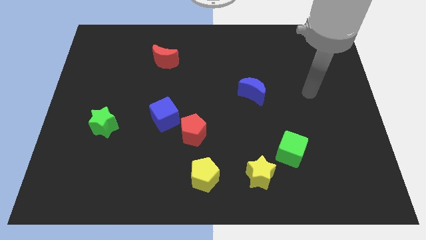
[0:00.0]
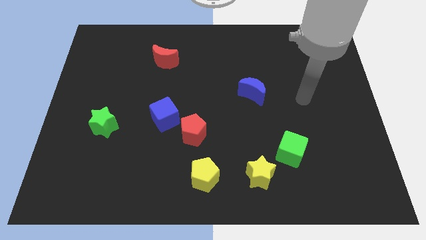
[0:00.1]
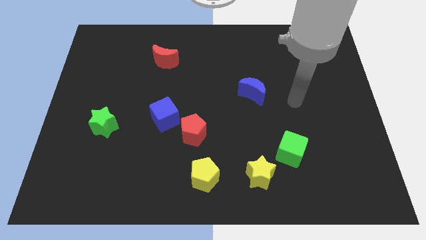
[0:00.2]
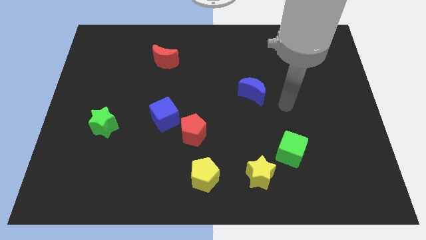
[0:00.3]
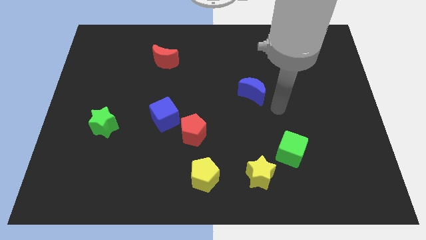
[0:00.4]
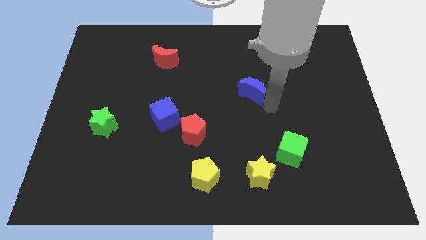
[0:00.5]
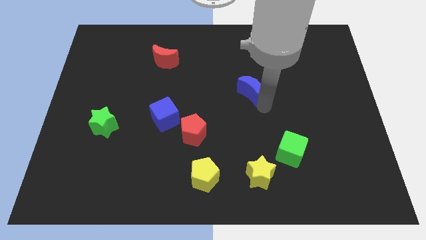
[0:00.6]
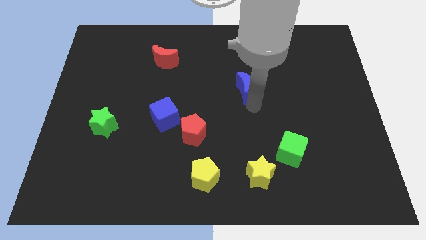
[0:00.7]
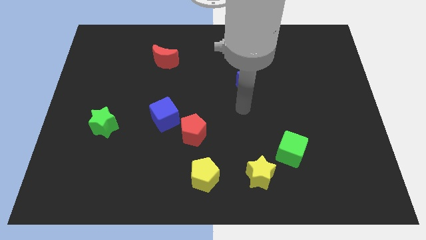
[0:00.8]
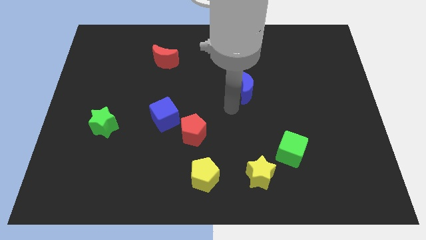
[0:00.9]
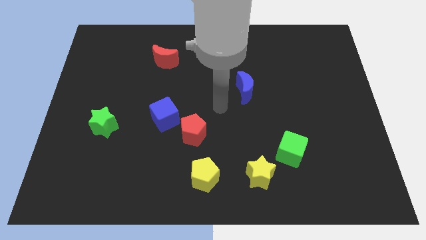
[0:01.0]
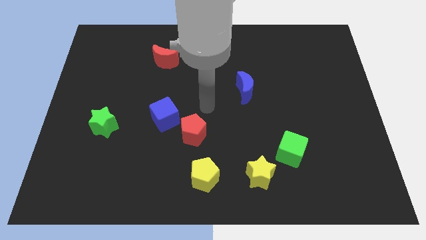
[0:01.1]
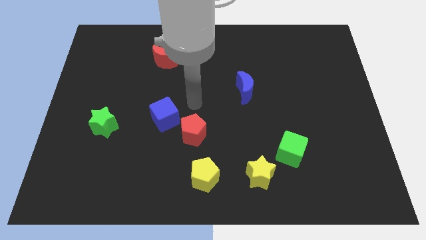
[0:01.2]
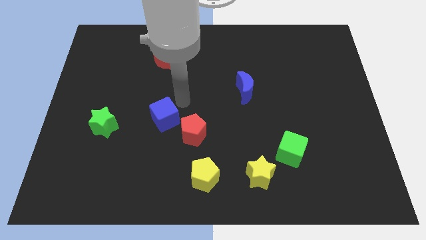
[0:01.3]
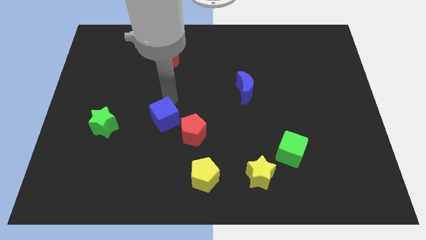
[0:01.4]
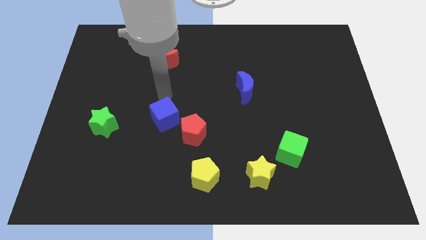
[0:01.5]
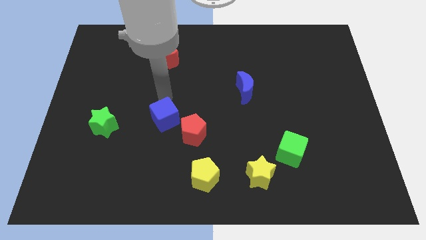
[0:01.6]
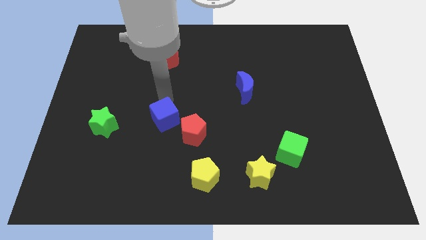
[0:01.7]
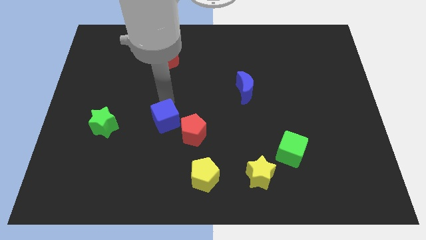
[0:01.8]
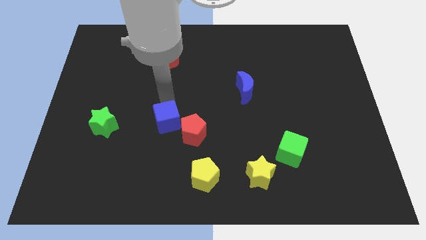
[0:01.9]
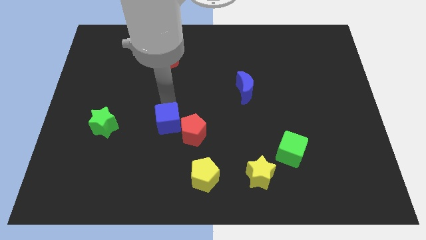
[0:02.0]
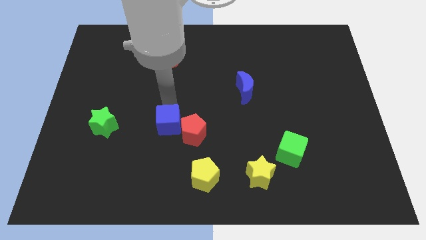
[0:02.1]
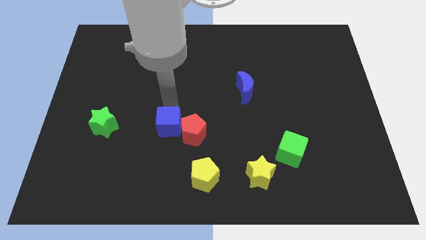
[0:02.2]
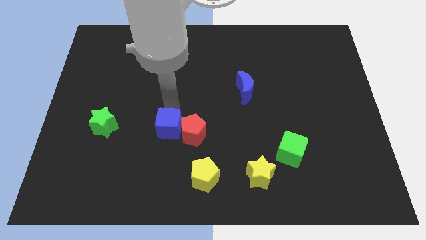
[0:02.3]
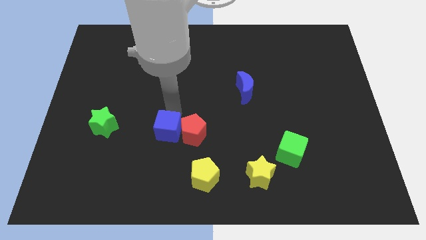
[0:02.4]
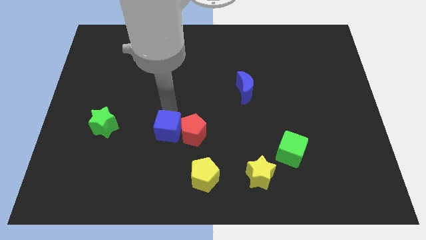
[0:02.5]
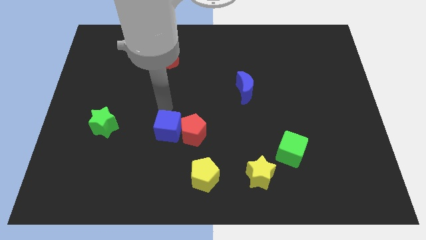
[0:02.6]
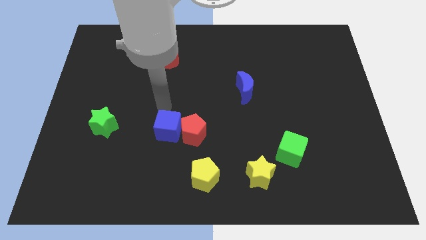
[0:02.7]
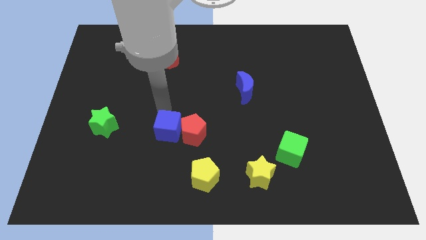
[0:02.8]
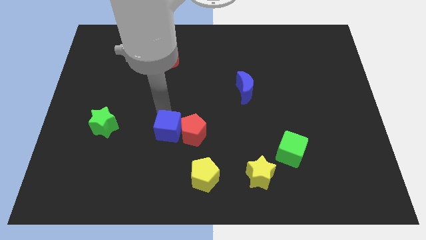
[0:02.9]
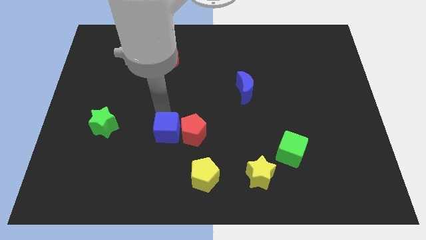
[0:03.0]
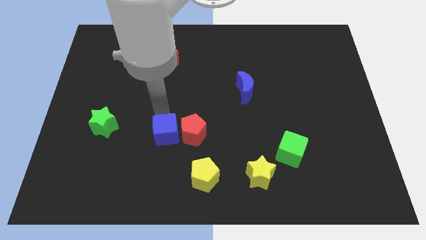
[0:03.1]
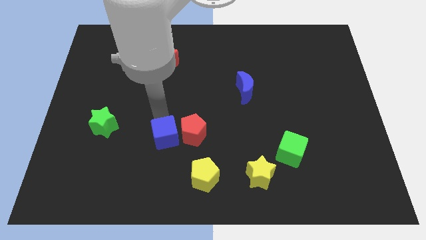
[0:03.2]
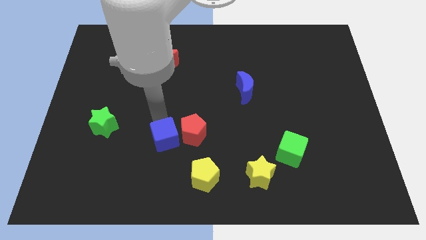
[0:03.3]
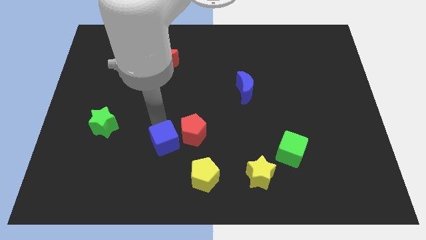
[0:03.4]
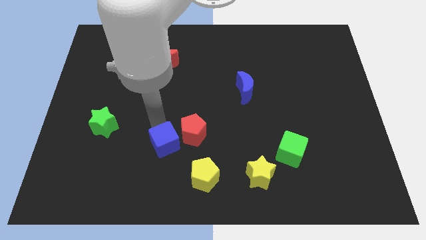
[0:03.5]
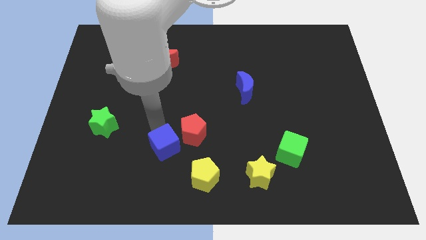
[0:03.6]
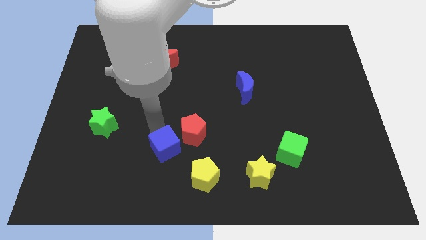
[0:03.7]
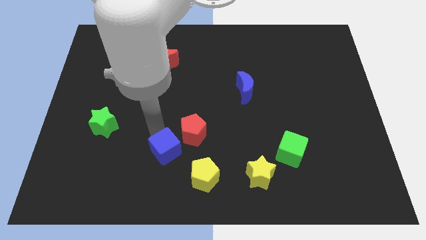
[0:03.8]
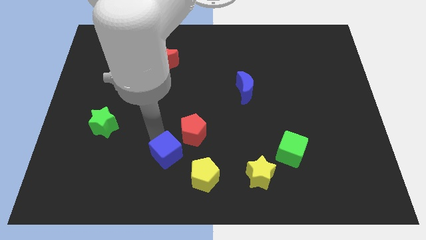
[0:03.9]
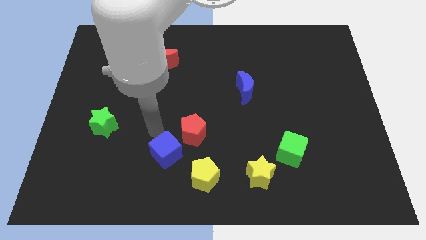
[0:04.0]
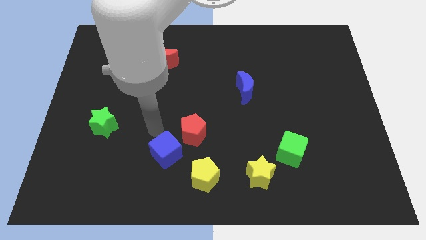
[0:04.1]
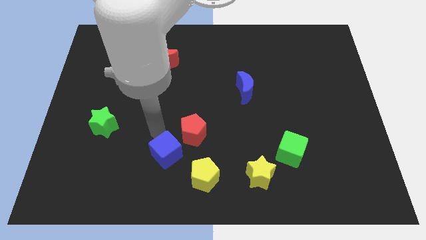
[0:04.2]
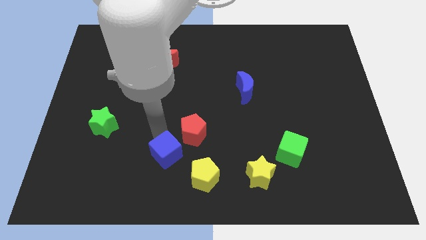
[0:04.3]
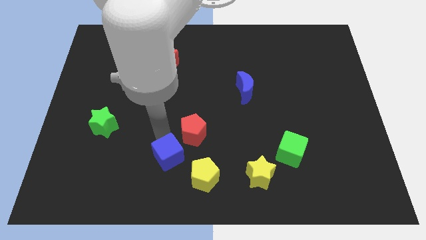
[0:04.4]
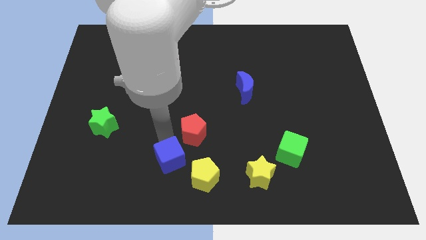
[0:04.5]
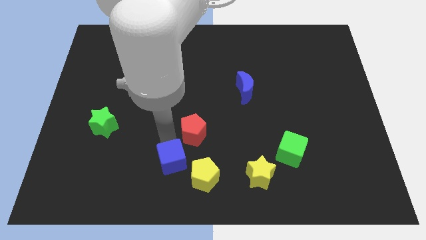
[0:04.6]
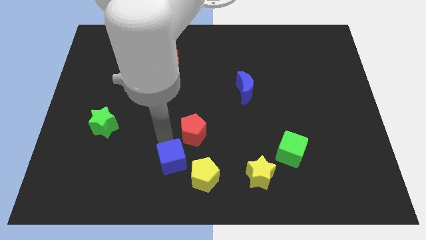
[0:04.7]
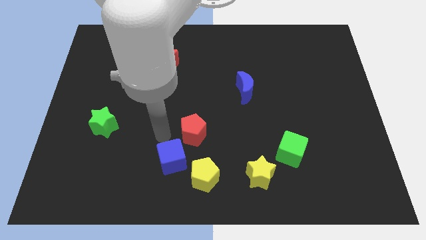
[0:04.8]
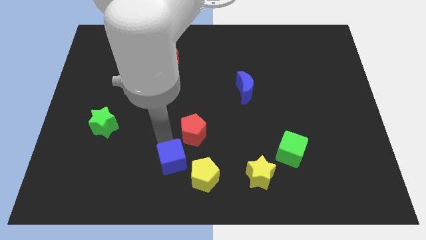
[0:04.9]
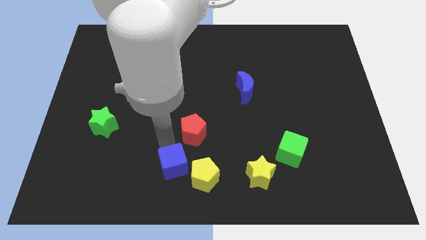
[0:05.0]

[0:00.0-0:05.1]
slide the blue cube to the bottom

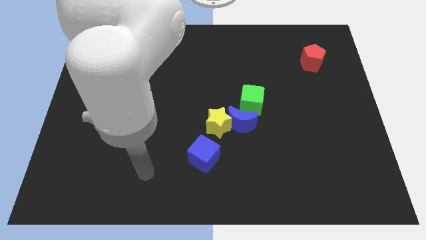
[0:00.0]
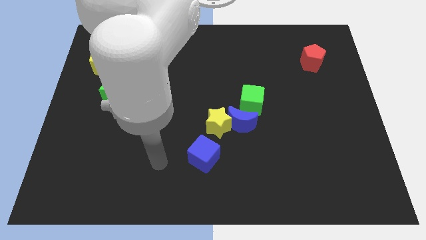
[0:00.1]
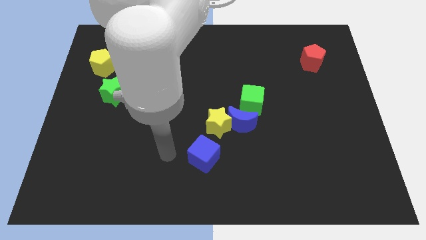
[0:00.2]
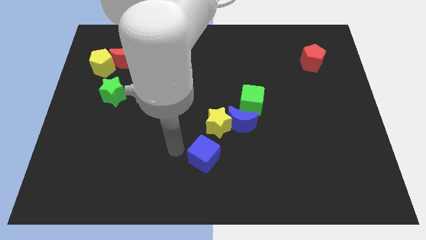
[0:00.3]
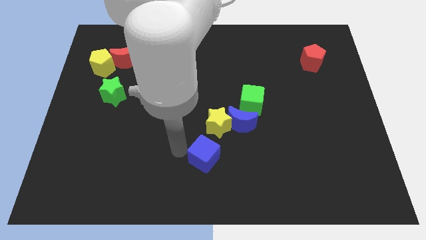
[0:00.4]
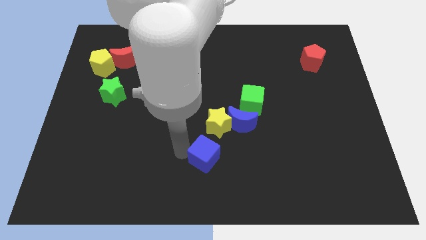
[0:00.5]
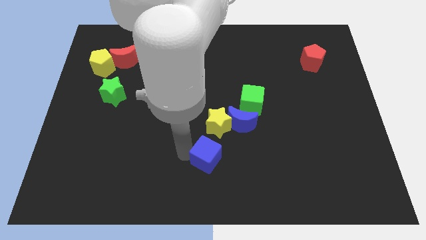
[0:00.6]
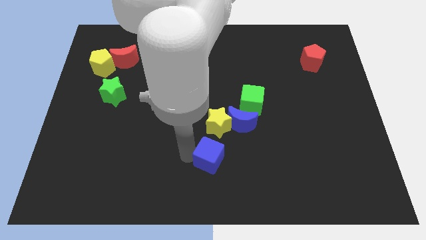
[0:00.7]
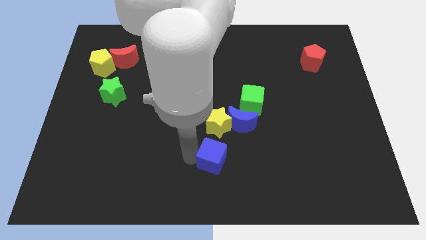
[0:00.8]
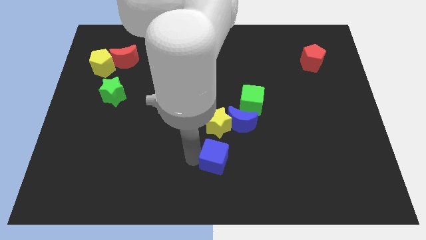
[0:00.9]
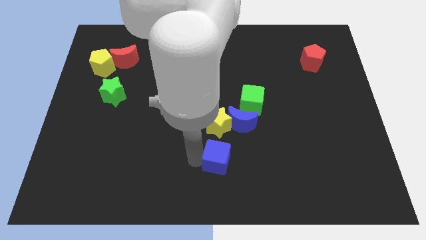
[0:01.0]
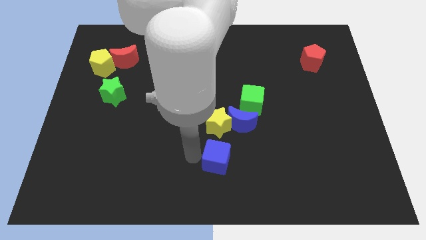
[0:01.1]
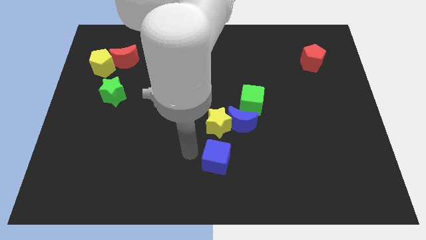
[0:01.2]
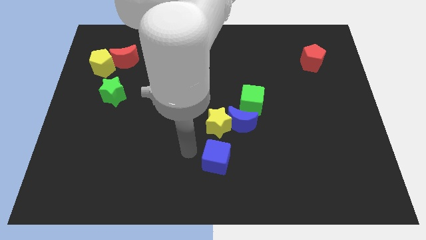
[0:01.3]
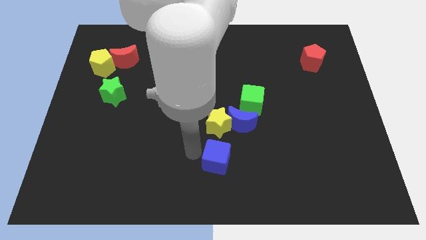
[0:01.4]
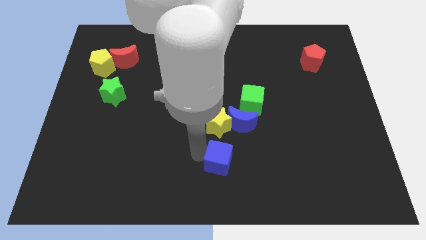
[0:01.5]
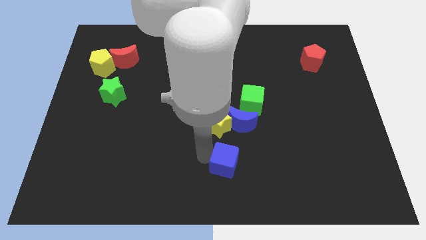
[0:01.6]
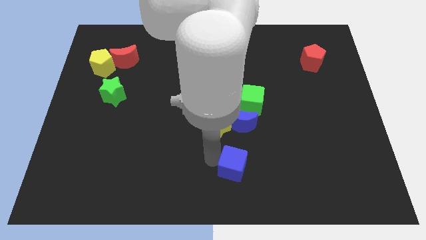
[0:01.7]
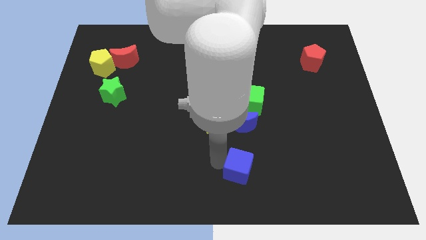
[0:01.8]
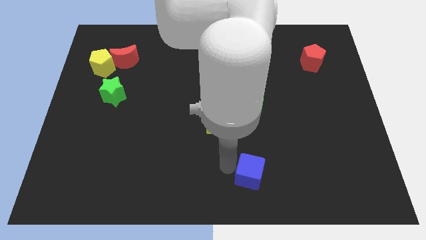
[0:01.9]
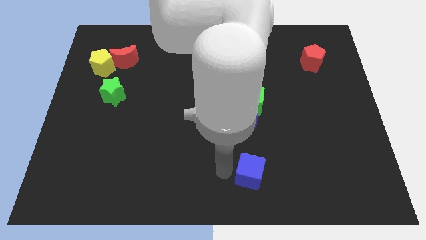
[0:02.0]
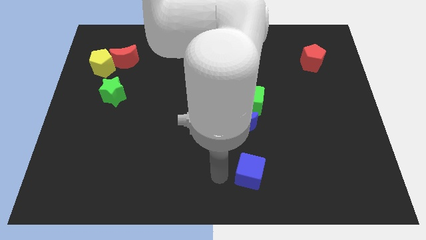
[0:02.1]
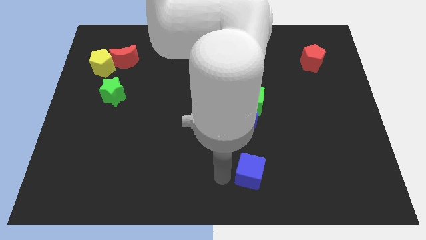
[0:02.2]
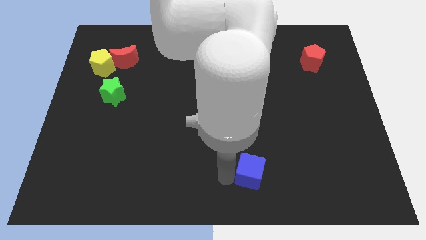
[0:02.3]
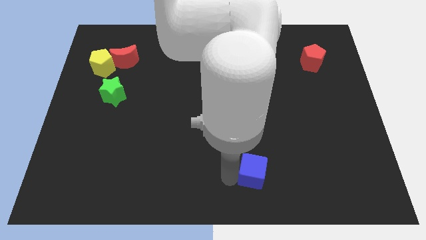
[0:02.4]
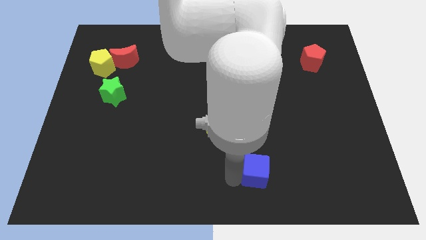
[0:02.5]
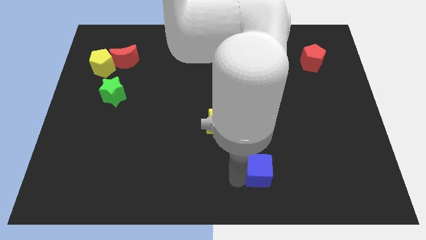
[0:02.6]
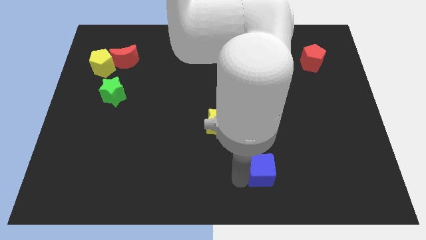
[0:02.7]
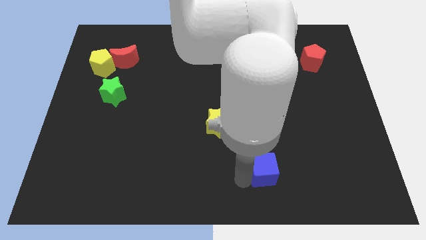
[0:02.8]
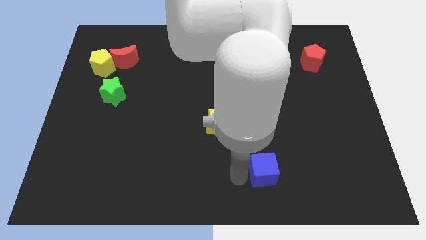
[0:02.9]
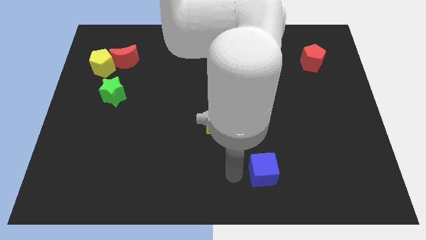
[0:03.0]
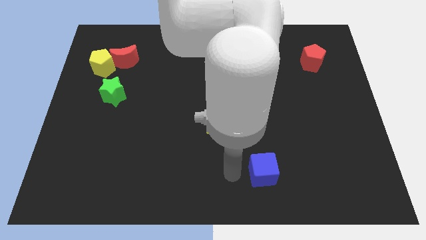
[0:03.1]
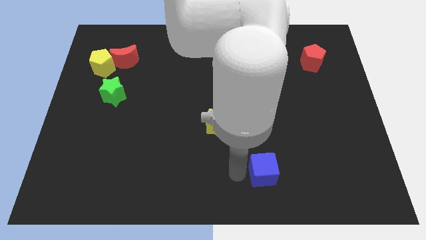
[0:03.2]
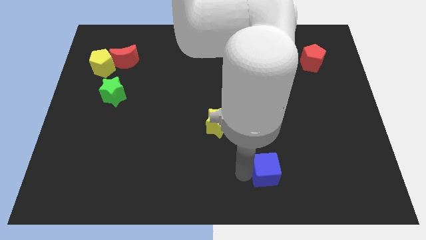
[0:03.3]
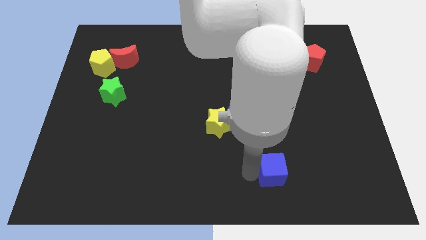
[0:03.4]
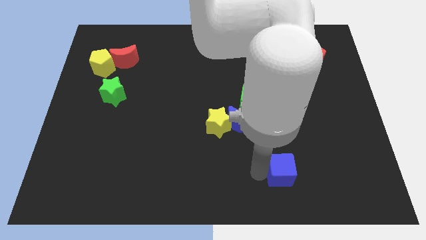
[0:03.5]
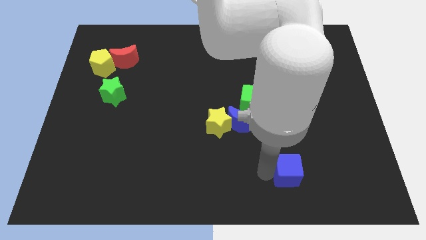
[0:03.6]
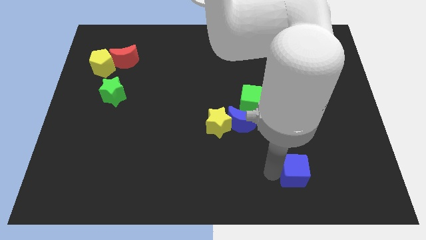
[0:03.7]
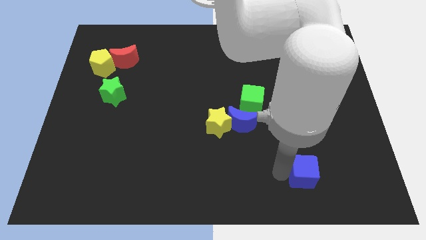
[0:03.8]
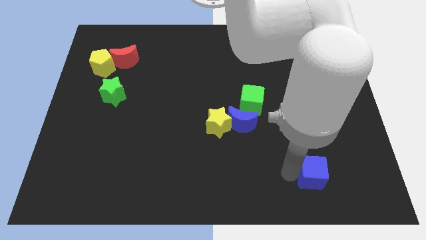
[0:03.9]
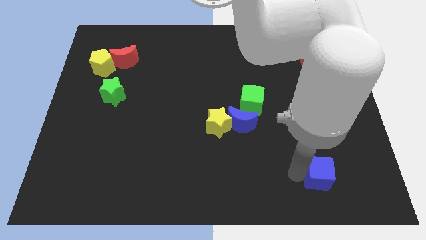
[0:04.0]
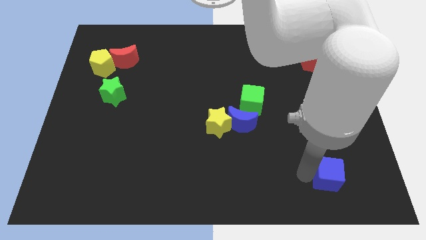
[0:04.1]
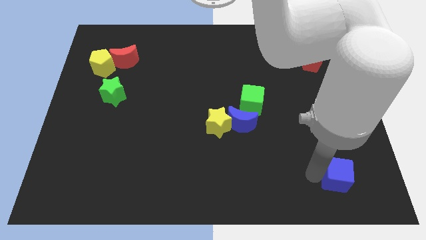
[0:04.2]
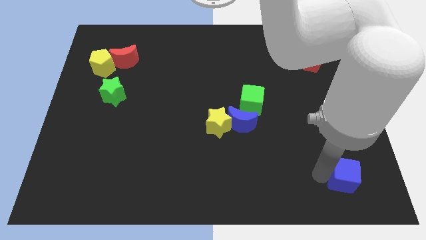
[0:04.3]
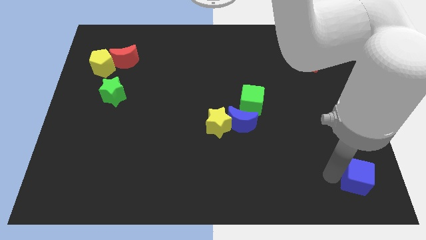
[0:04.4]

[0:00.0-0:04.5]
move the blue cube to the bottom right of the board
